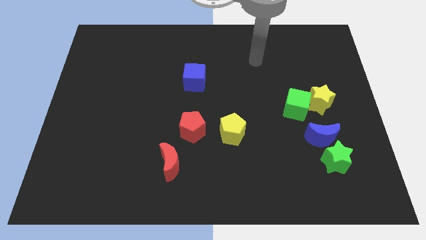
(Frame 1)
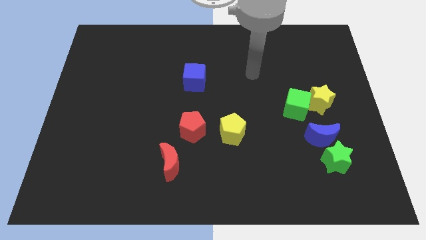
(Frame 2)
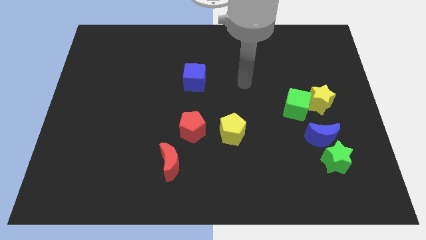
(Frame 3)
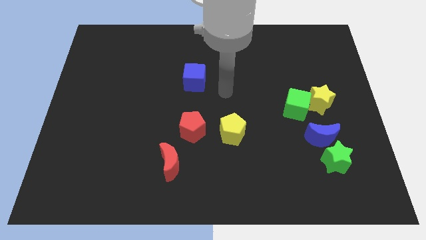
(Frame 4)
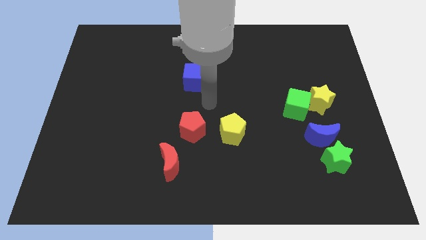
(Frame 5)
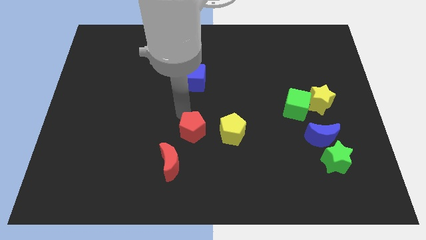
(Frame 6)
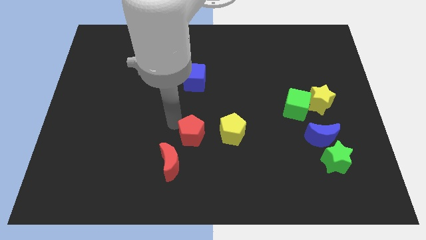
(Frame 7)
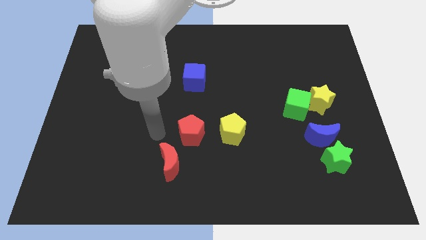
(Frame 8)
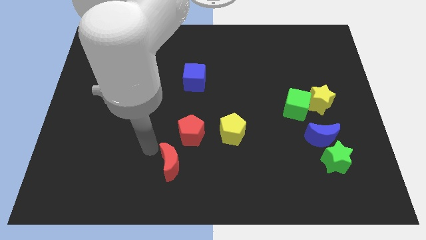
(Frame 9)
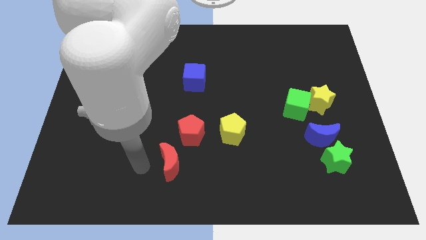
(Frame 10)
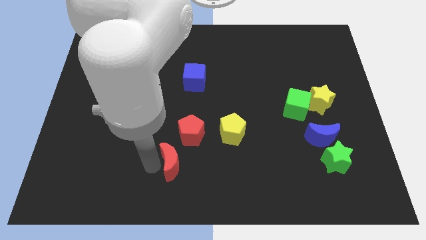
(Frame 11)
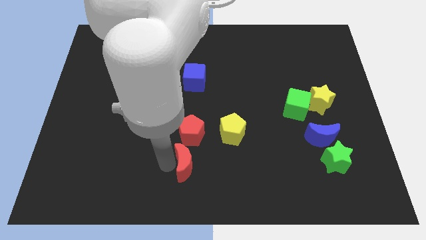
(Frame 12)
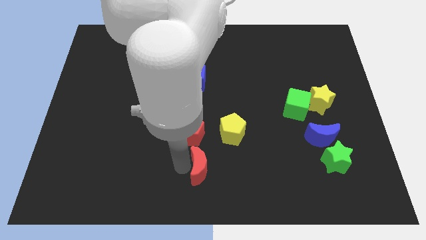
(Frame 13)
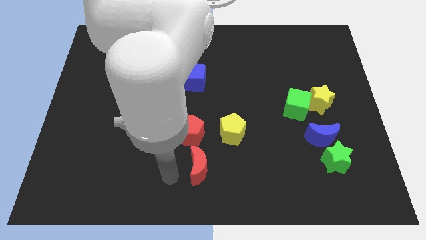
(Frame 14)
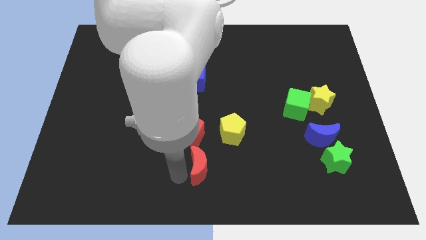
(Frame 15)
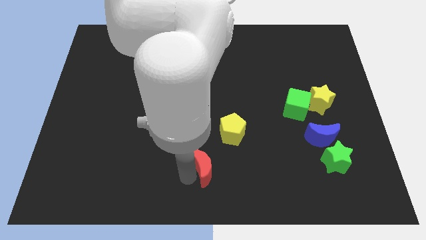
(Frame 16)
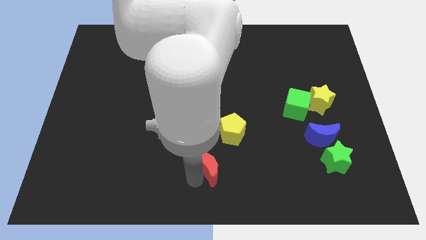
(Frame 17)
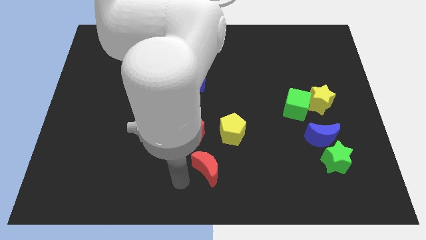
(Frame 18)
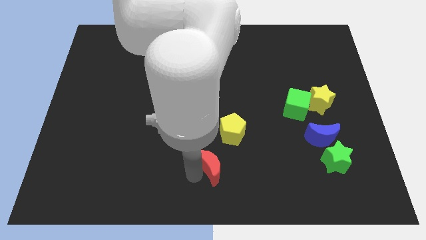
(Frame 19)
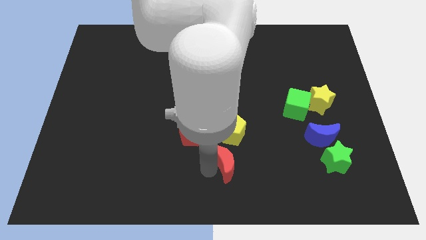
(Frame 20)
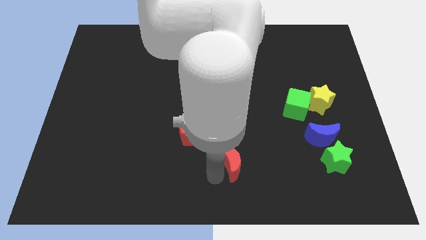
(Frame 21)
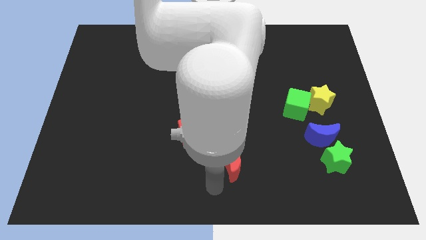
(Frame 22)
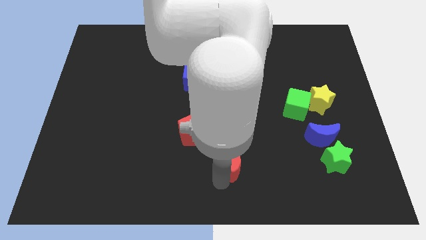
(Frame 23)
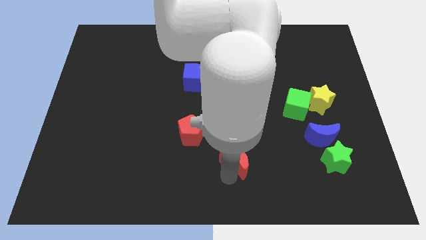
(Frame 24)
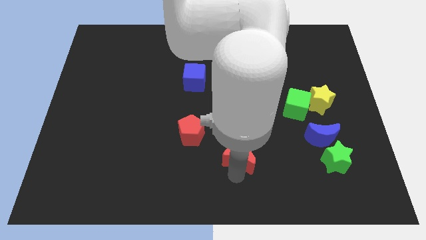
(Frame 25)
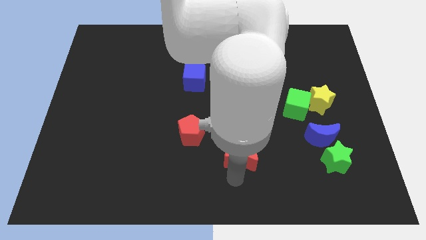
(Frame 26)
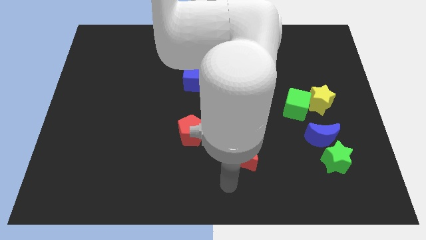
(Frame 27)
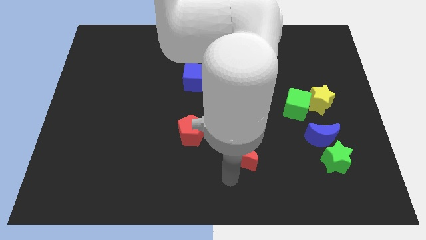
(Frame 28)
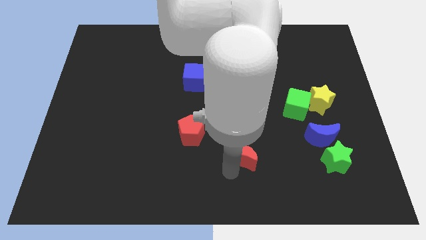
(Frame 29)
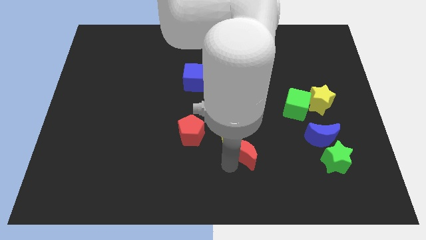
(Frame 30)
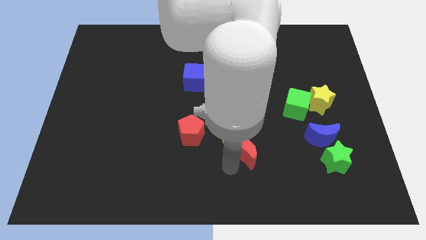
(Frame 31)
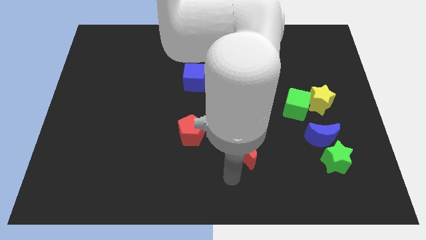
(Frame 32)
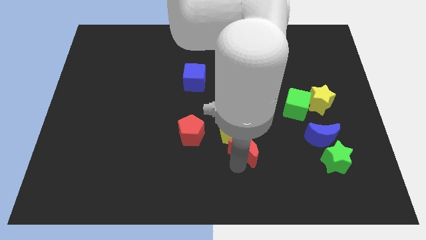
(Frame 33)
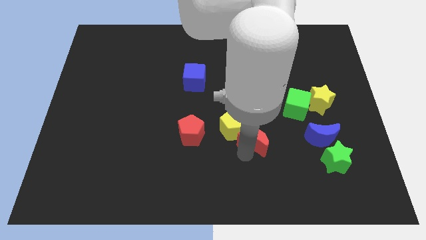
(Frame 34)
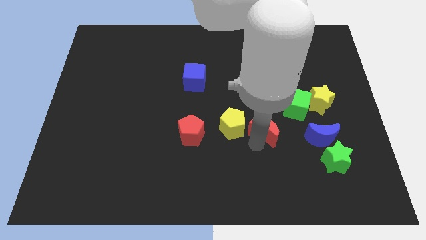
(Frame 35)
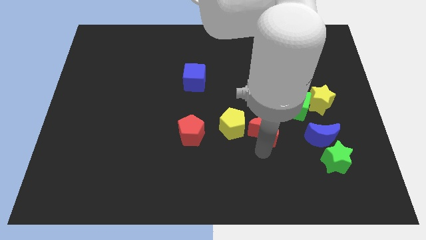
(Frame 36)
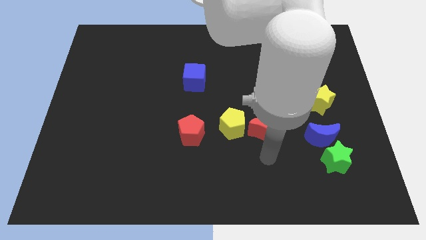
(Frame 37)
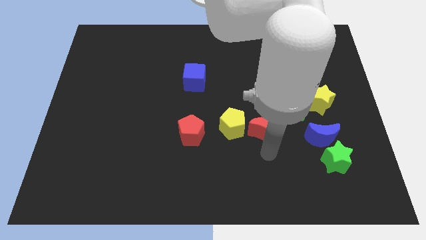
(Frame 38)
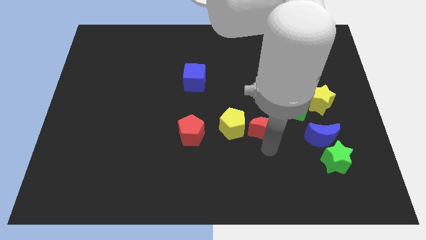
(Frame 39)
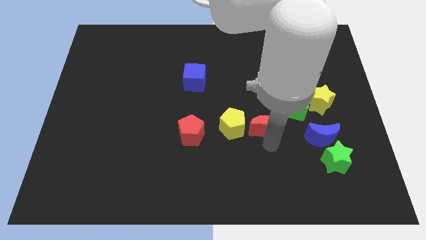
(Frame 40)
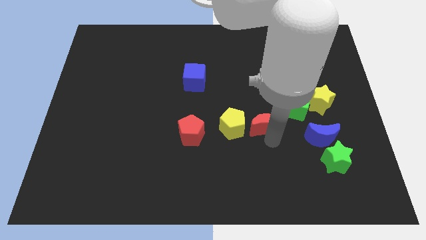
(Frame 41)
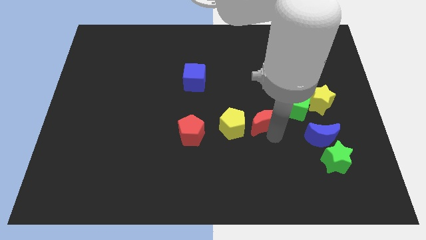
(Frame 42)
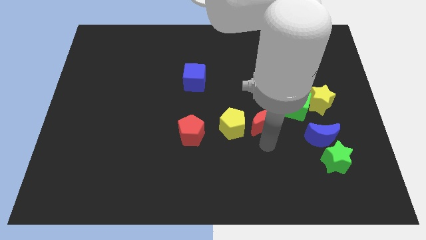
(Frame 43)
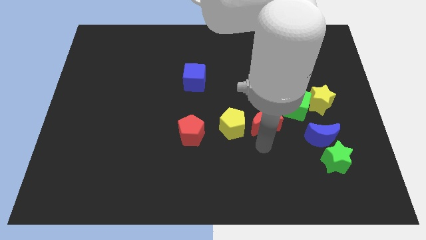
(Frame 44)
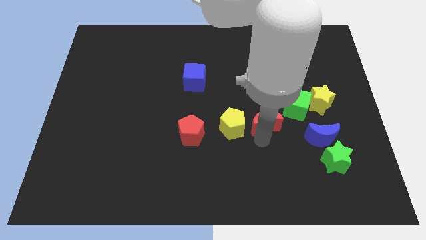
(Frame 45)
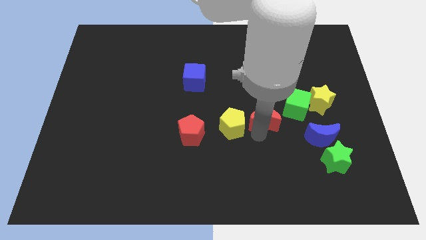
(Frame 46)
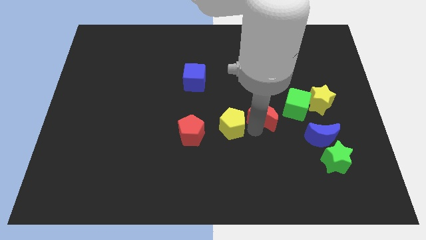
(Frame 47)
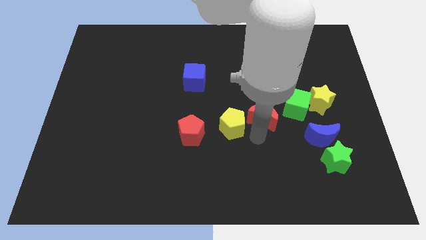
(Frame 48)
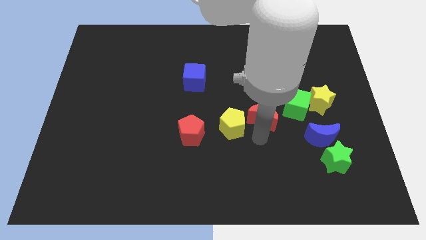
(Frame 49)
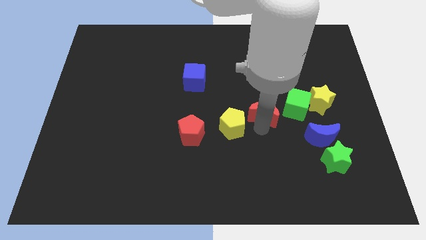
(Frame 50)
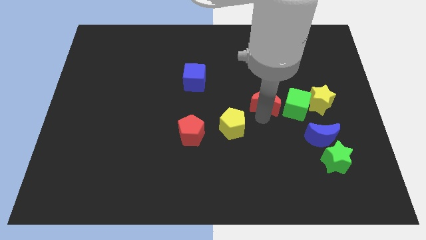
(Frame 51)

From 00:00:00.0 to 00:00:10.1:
slide the red moon diagonally up and to the left of the green cube

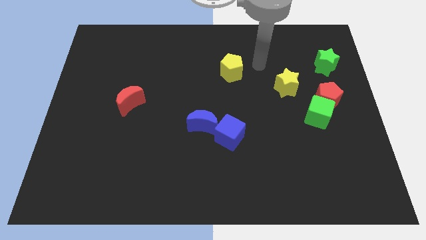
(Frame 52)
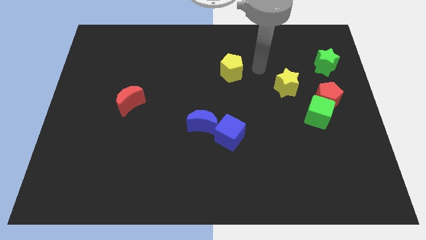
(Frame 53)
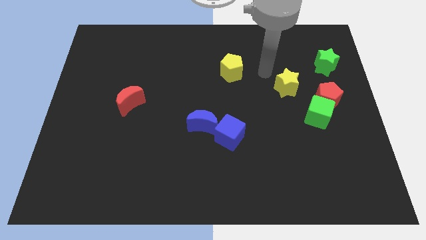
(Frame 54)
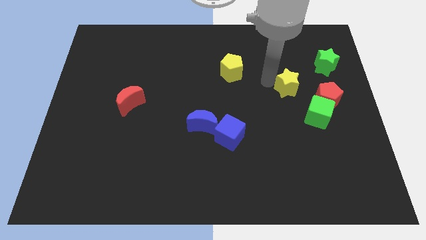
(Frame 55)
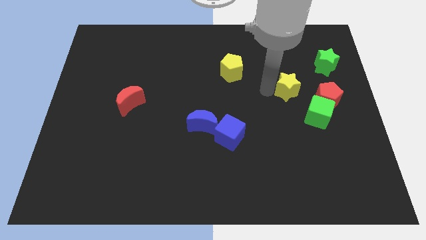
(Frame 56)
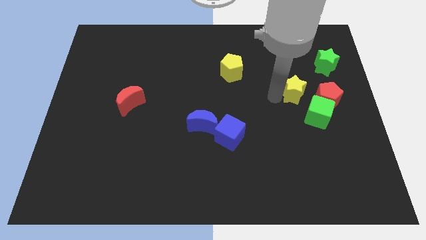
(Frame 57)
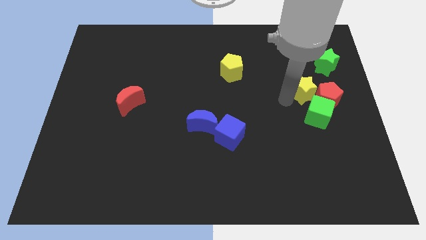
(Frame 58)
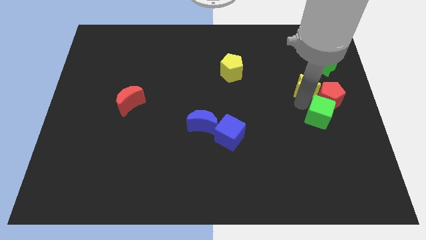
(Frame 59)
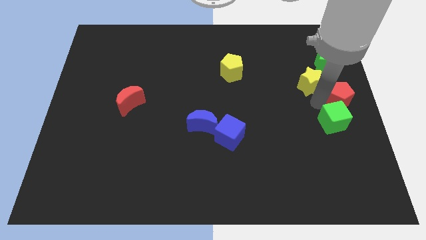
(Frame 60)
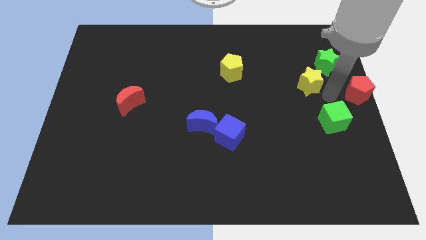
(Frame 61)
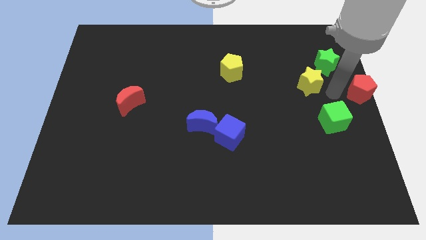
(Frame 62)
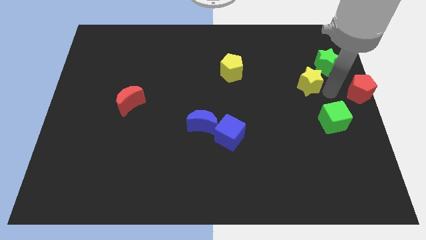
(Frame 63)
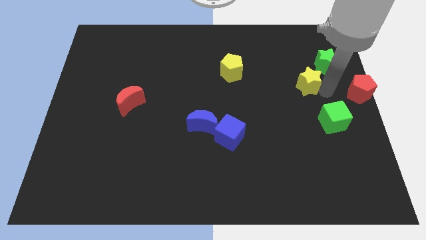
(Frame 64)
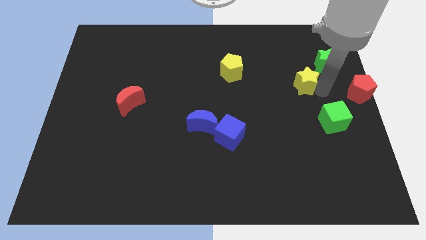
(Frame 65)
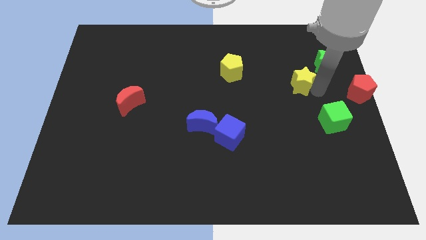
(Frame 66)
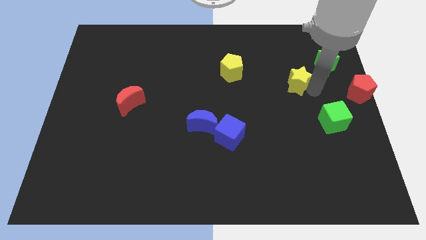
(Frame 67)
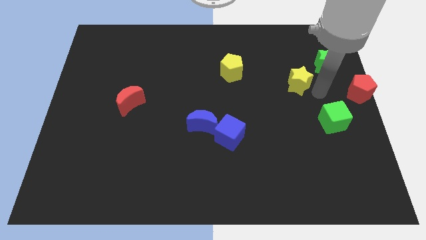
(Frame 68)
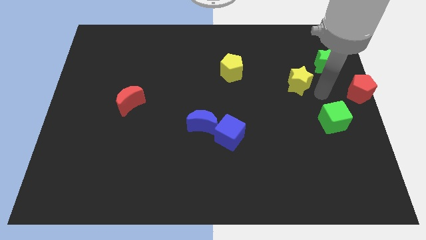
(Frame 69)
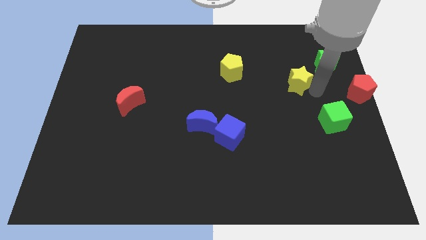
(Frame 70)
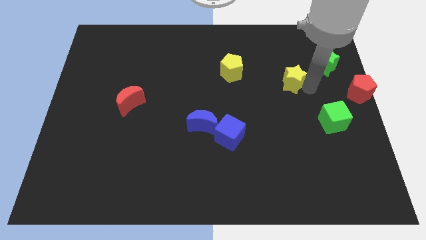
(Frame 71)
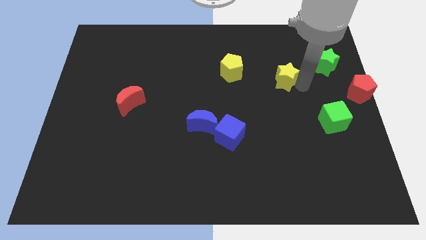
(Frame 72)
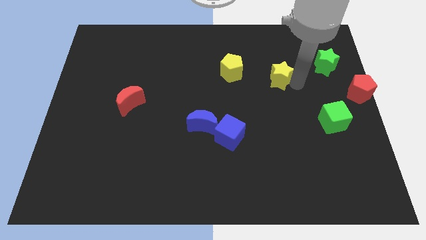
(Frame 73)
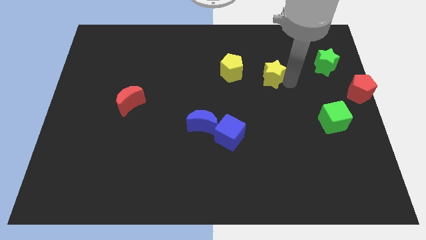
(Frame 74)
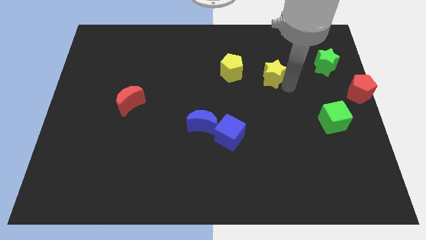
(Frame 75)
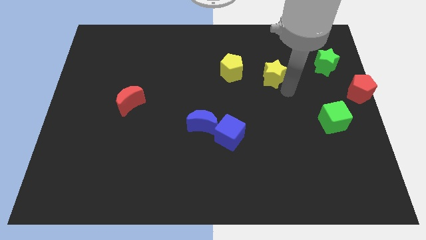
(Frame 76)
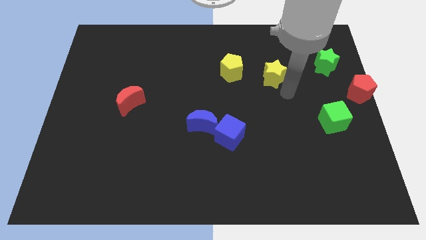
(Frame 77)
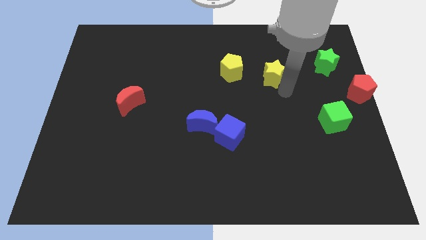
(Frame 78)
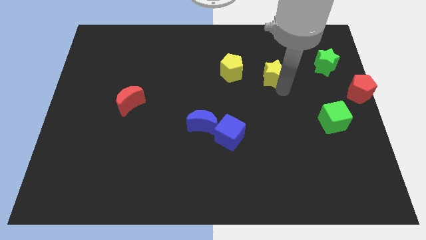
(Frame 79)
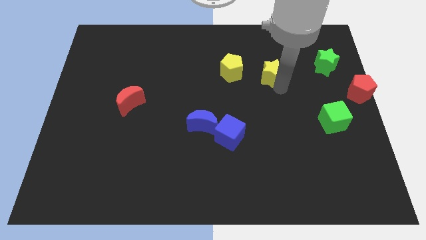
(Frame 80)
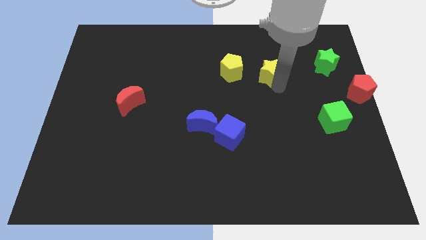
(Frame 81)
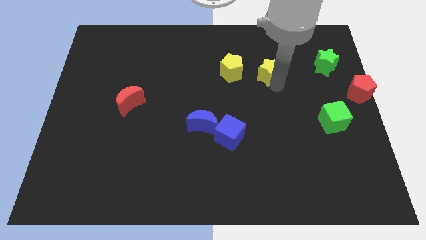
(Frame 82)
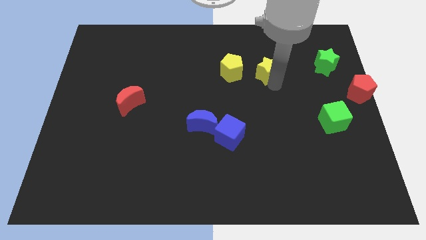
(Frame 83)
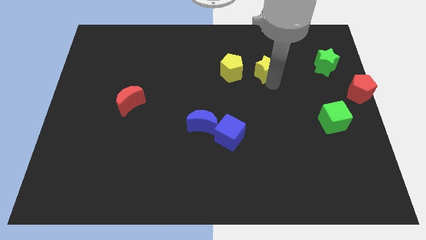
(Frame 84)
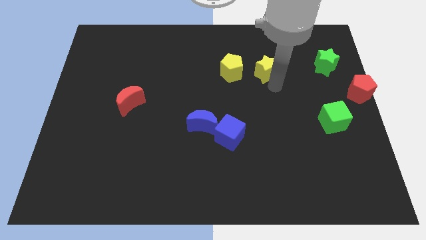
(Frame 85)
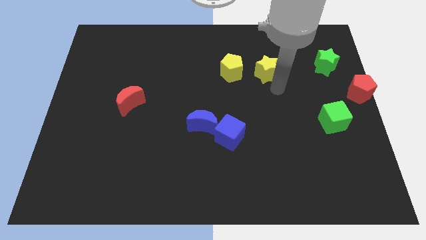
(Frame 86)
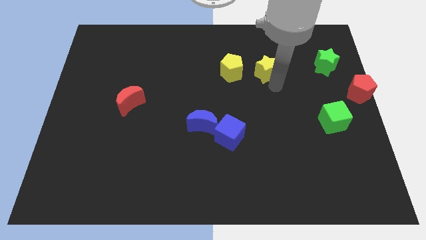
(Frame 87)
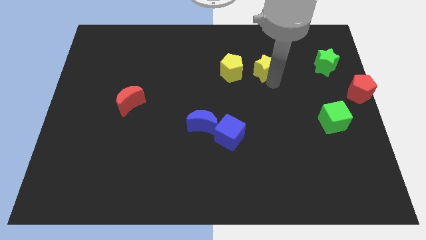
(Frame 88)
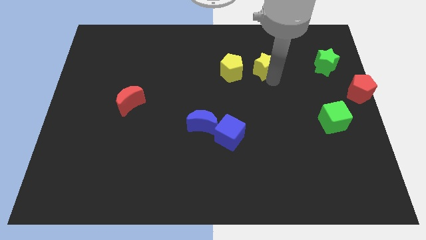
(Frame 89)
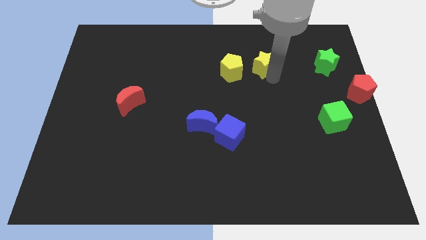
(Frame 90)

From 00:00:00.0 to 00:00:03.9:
slide the yellow star diagonally up and to the right of the yellow pentagon
